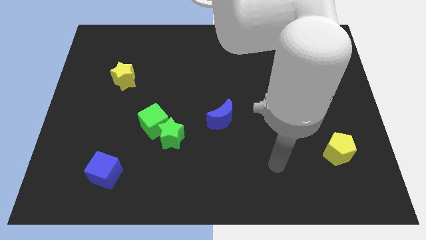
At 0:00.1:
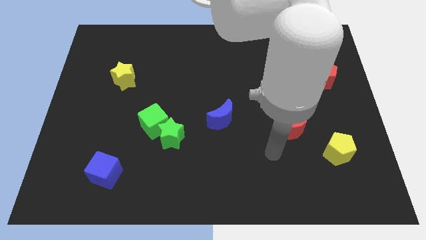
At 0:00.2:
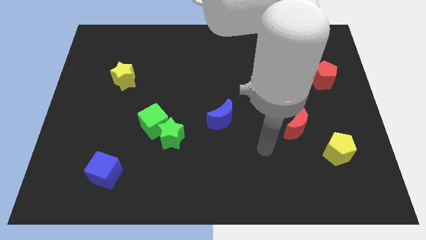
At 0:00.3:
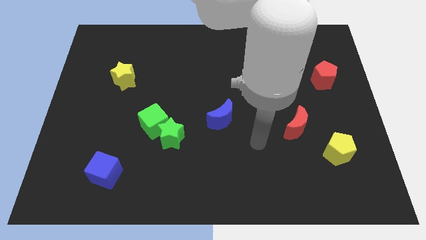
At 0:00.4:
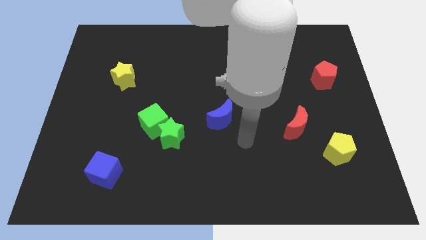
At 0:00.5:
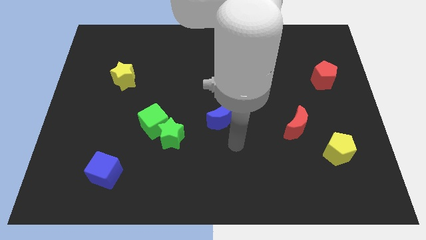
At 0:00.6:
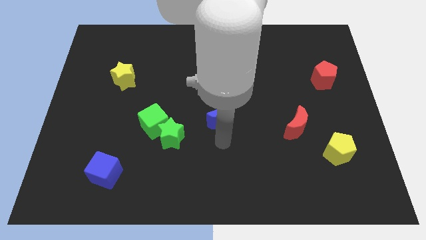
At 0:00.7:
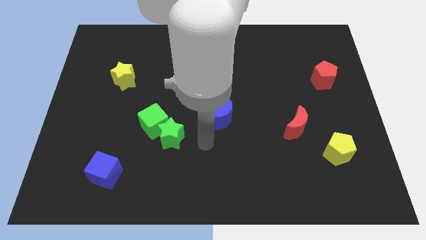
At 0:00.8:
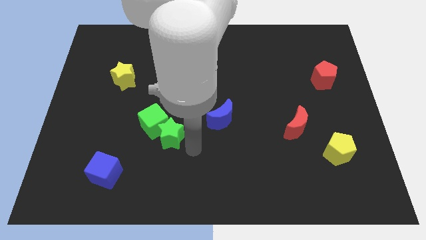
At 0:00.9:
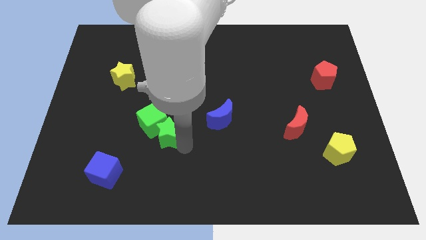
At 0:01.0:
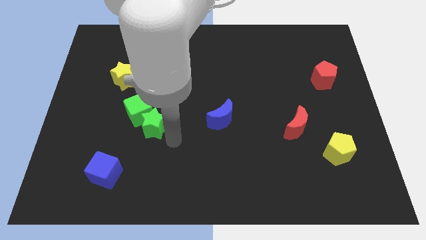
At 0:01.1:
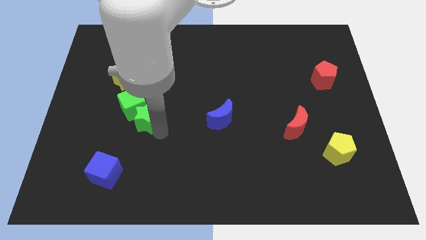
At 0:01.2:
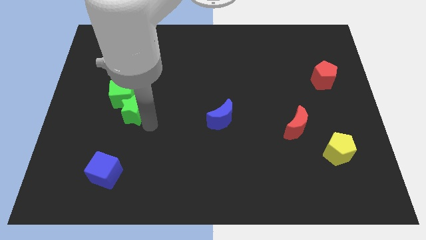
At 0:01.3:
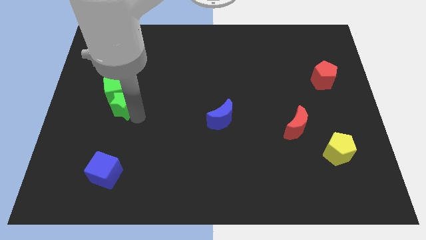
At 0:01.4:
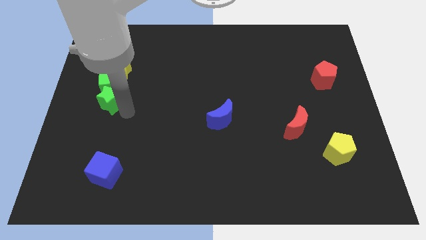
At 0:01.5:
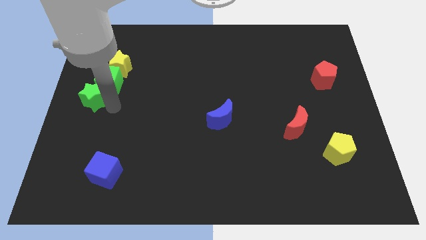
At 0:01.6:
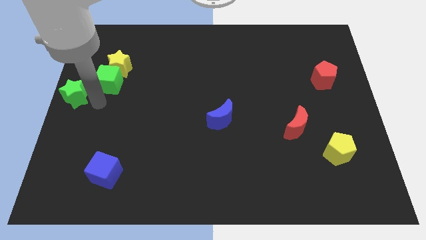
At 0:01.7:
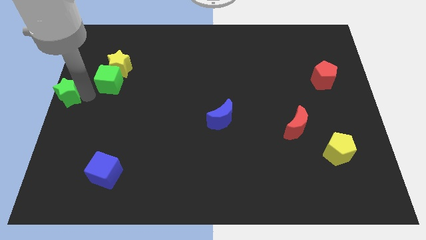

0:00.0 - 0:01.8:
pull the green cube apart from the green star

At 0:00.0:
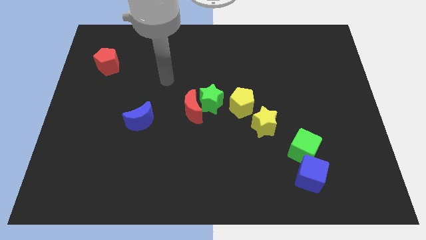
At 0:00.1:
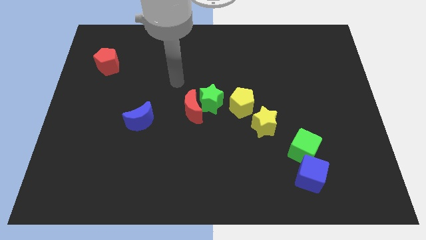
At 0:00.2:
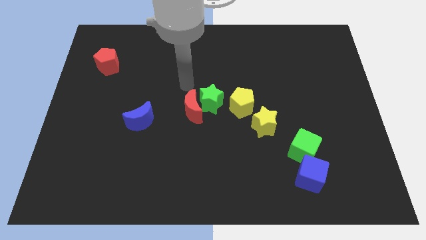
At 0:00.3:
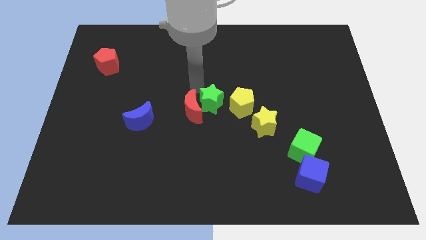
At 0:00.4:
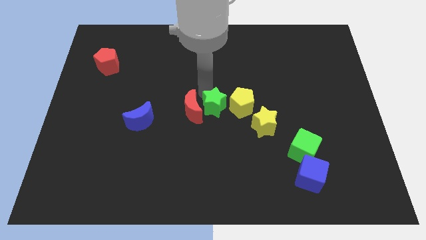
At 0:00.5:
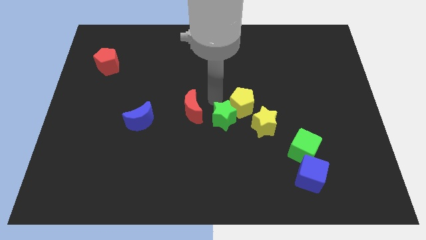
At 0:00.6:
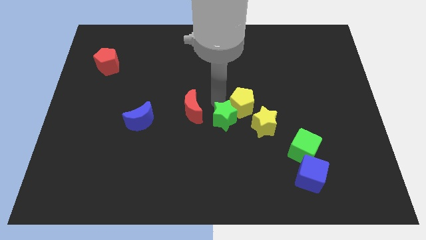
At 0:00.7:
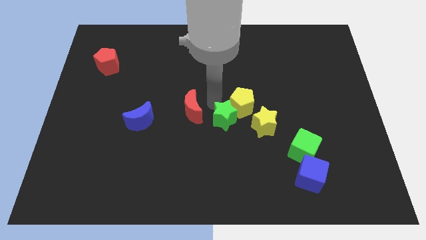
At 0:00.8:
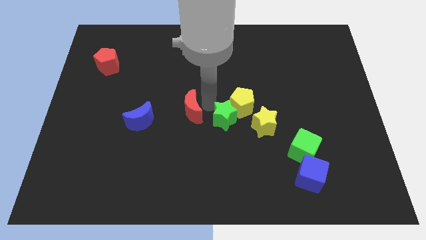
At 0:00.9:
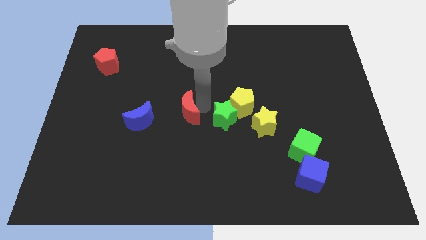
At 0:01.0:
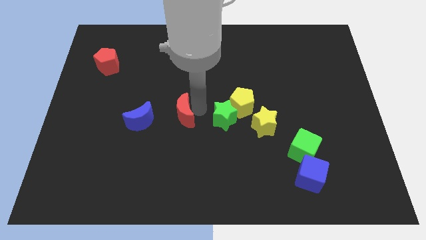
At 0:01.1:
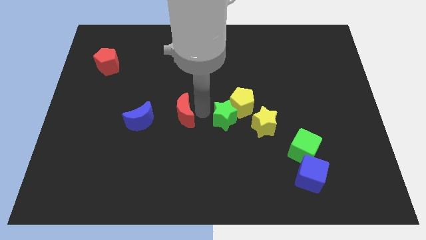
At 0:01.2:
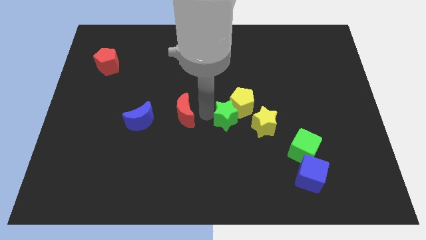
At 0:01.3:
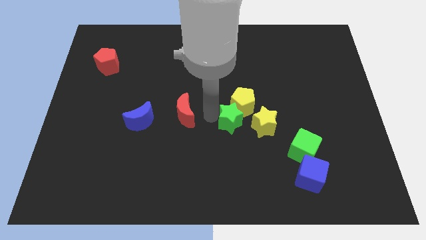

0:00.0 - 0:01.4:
pull the red moon apart from the green star

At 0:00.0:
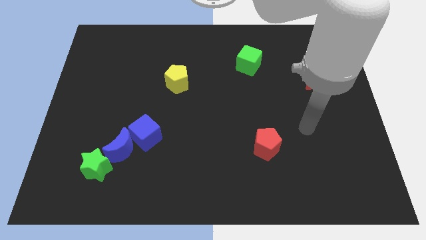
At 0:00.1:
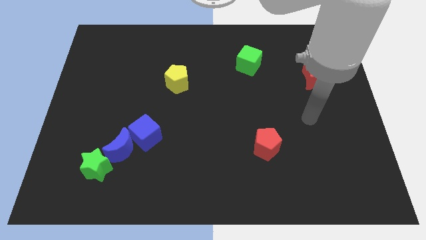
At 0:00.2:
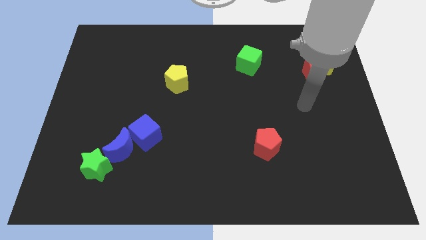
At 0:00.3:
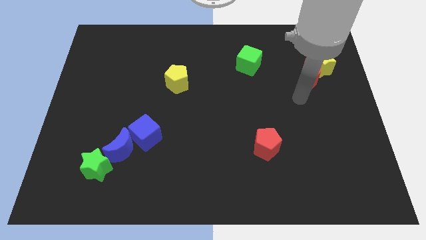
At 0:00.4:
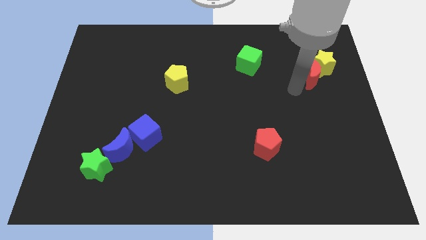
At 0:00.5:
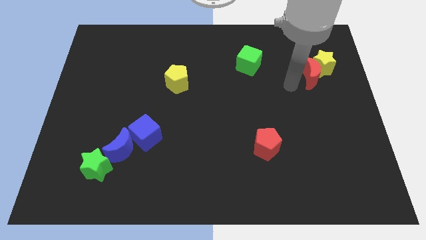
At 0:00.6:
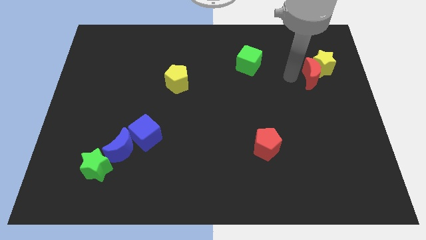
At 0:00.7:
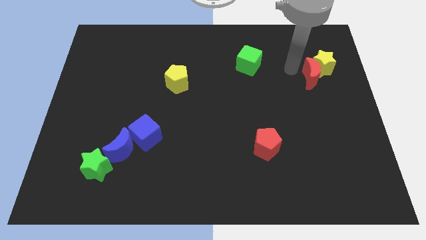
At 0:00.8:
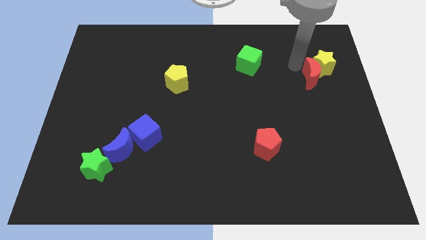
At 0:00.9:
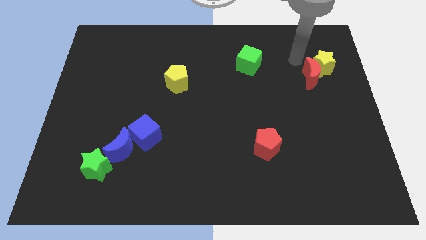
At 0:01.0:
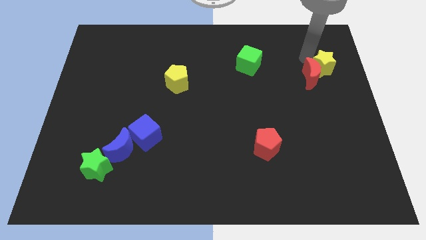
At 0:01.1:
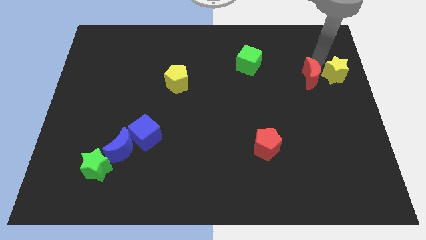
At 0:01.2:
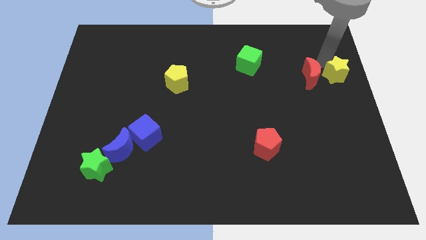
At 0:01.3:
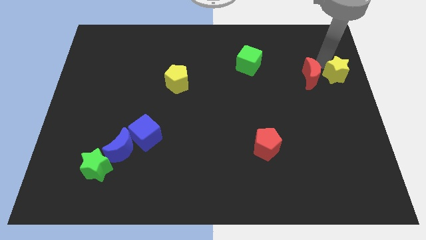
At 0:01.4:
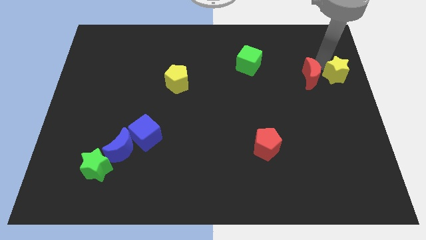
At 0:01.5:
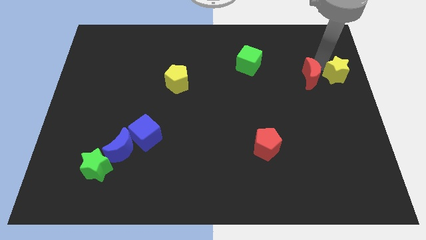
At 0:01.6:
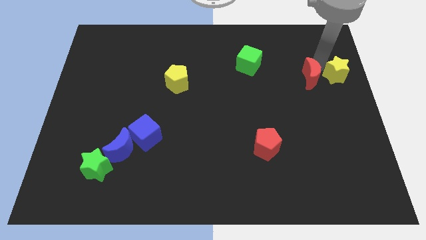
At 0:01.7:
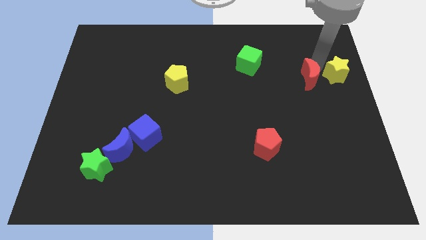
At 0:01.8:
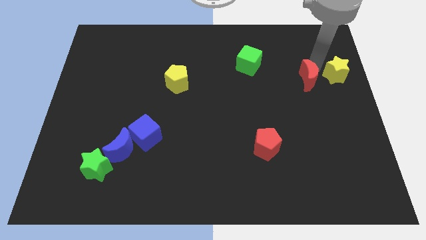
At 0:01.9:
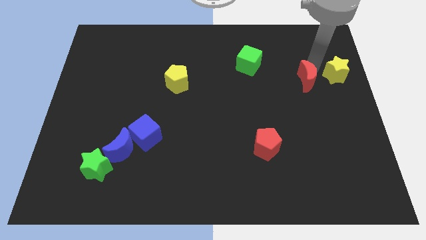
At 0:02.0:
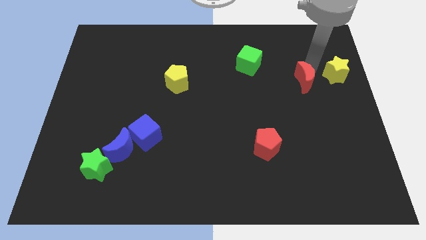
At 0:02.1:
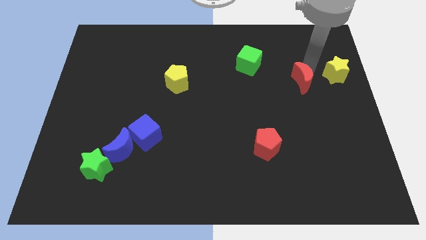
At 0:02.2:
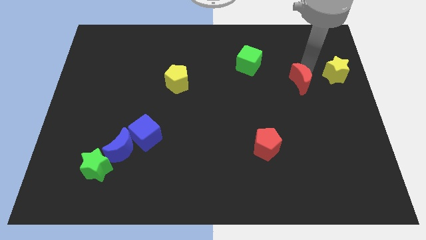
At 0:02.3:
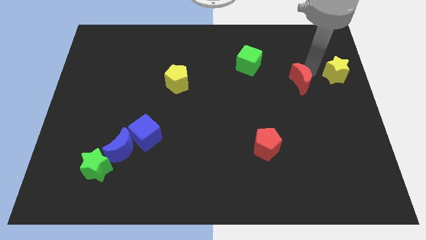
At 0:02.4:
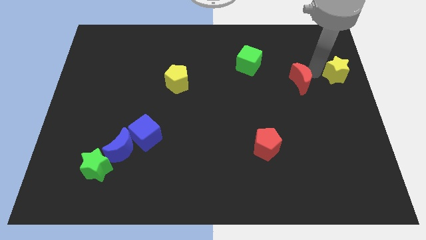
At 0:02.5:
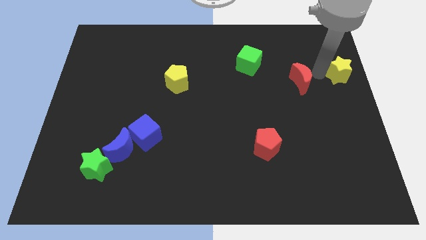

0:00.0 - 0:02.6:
move the red moon away from the yellow star

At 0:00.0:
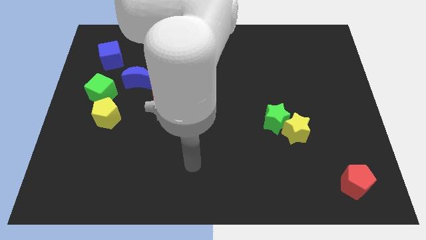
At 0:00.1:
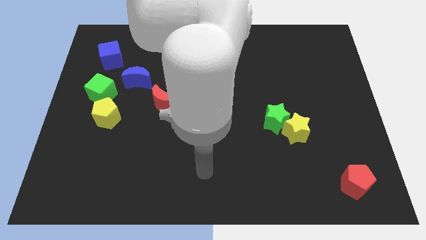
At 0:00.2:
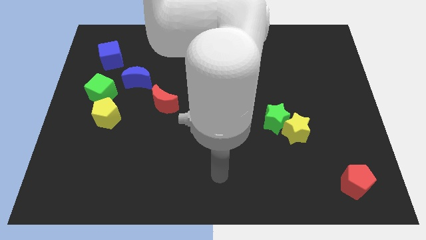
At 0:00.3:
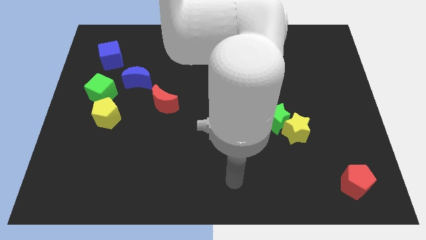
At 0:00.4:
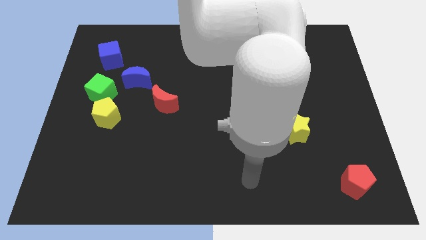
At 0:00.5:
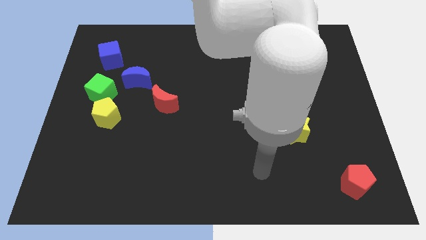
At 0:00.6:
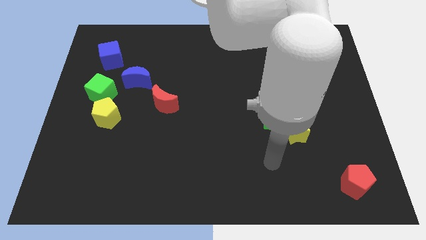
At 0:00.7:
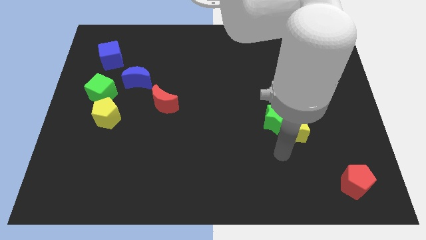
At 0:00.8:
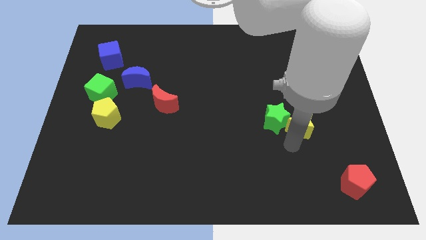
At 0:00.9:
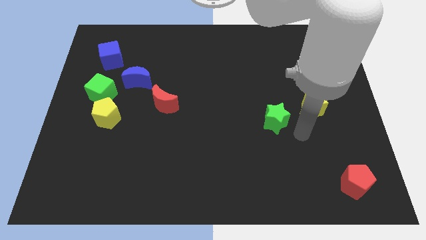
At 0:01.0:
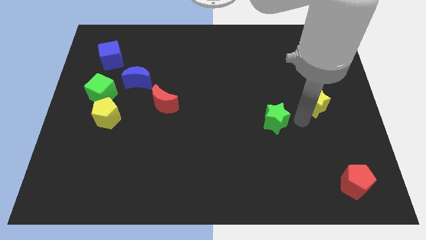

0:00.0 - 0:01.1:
pull the green star apart from the yellow star

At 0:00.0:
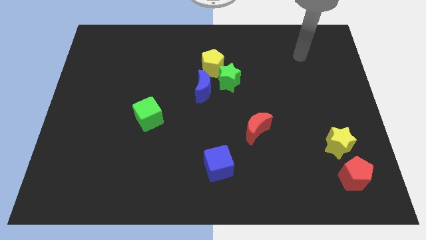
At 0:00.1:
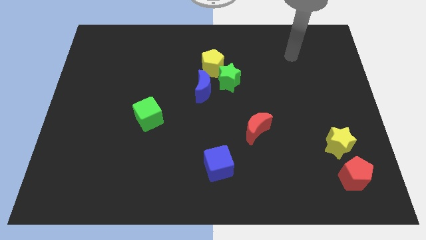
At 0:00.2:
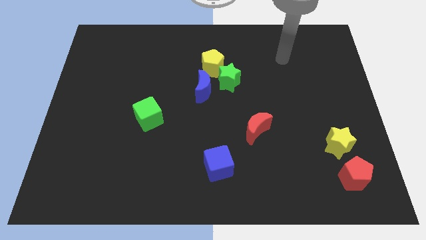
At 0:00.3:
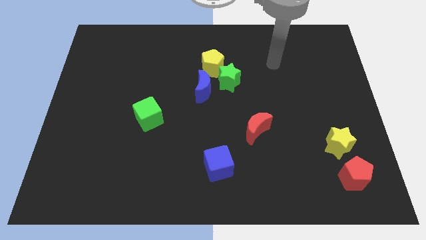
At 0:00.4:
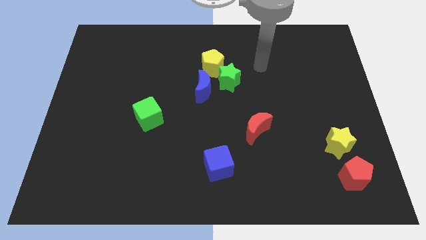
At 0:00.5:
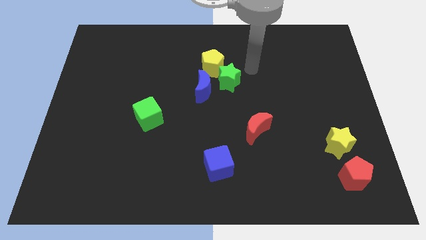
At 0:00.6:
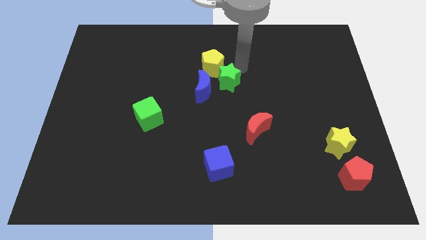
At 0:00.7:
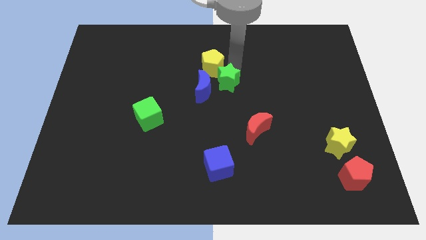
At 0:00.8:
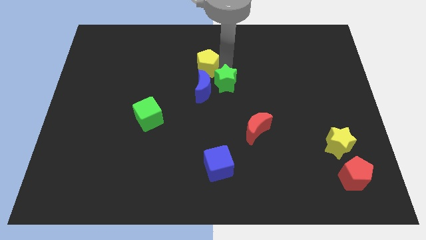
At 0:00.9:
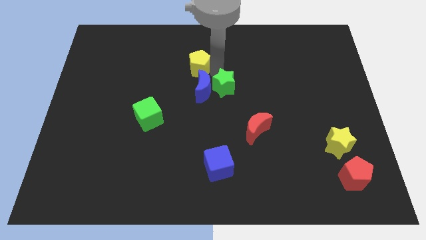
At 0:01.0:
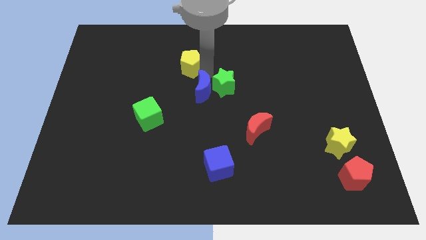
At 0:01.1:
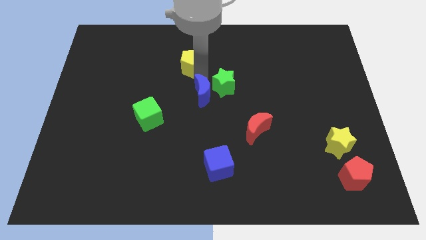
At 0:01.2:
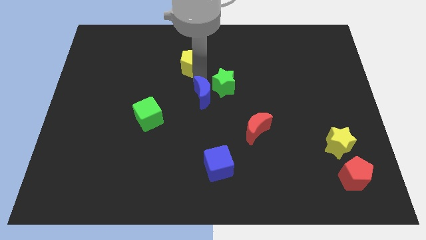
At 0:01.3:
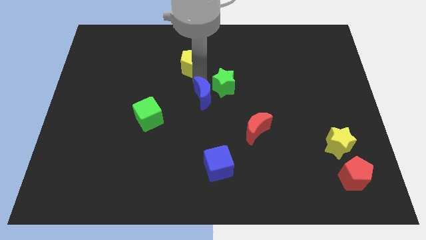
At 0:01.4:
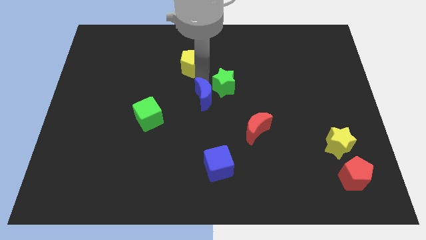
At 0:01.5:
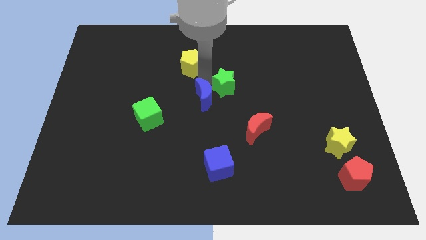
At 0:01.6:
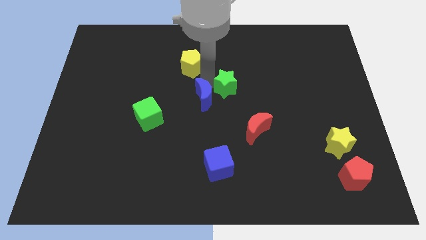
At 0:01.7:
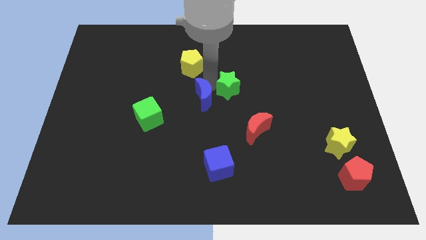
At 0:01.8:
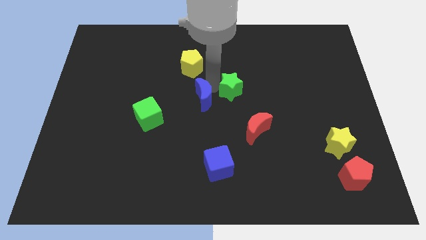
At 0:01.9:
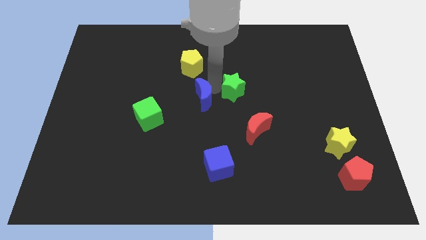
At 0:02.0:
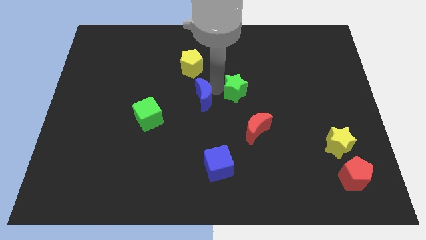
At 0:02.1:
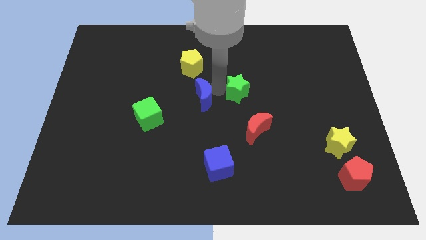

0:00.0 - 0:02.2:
separate the green star from the yellow pentagon and blue moon

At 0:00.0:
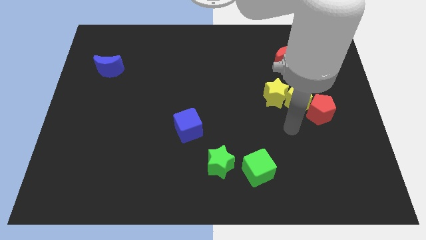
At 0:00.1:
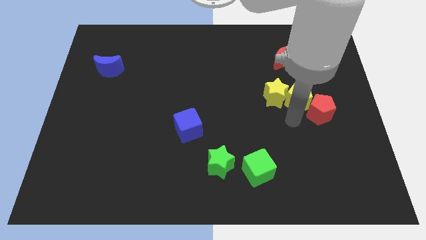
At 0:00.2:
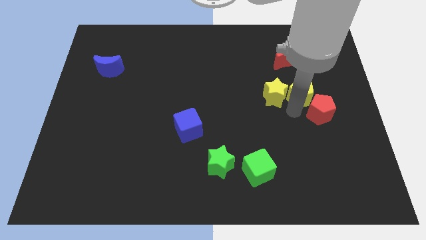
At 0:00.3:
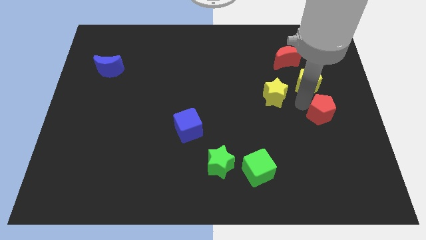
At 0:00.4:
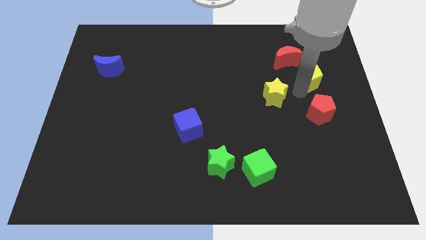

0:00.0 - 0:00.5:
separate the yellow star from the yellow pentagon
